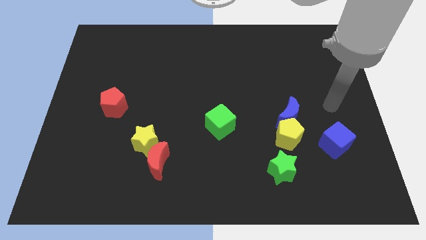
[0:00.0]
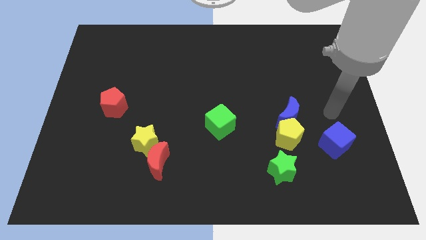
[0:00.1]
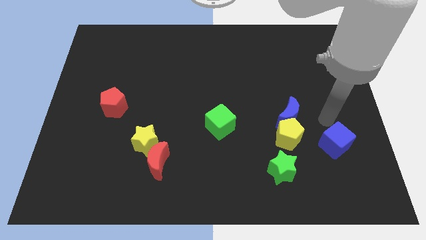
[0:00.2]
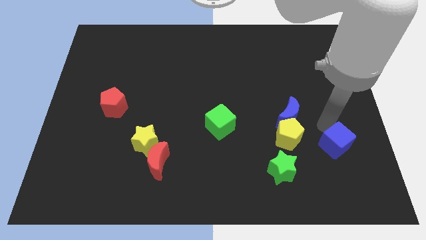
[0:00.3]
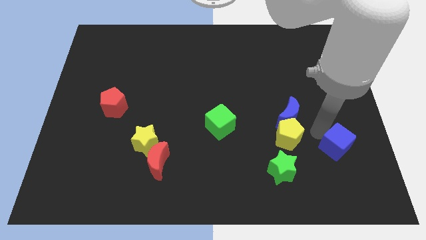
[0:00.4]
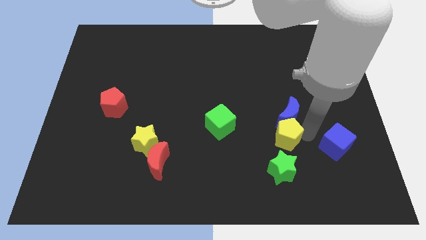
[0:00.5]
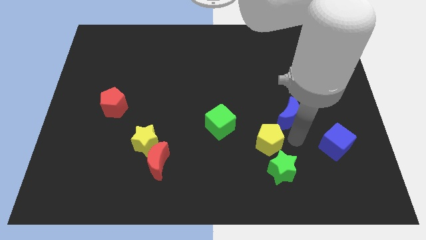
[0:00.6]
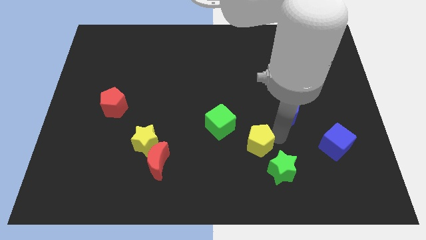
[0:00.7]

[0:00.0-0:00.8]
separate the blue moon from the yellow pentagon

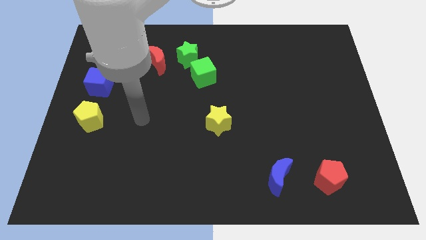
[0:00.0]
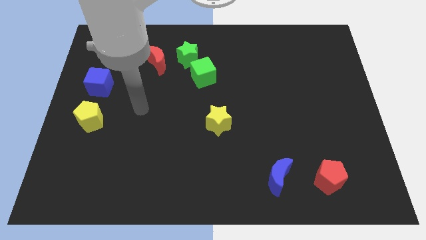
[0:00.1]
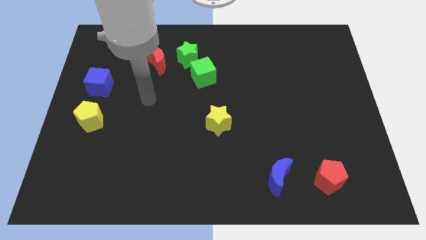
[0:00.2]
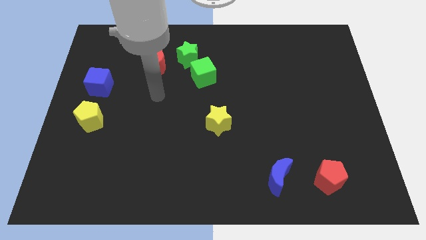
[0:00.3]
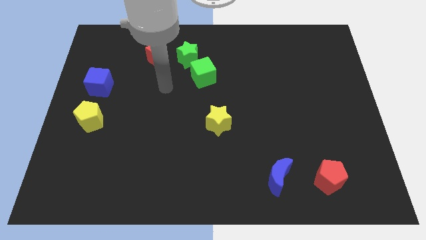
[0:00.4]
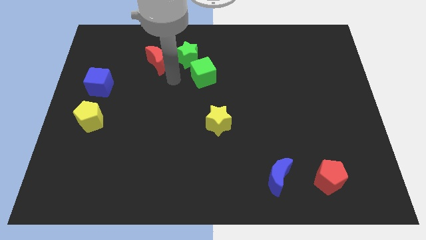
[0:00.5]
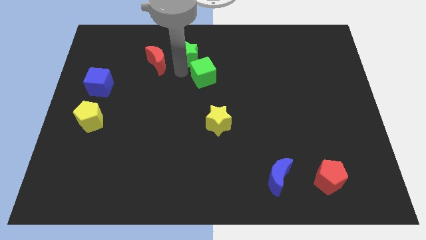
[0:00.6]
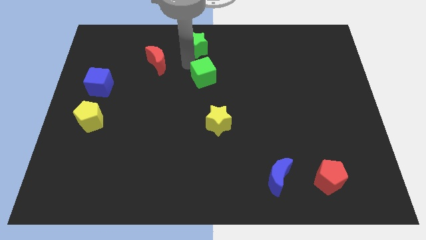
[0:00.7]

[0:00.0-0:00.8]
move the green cube away from the green star

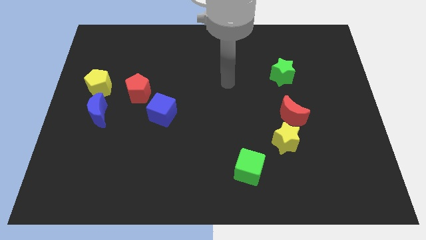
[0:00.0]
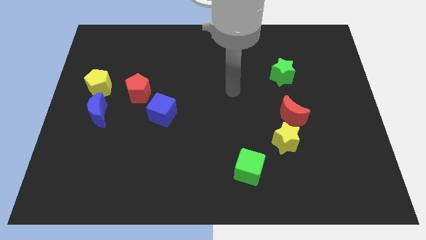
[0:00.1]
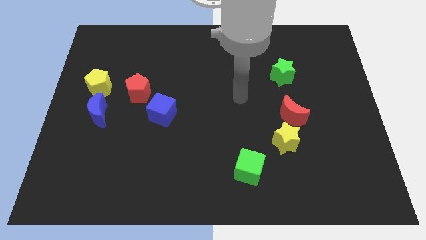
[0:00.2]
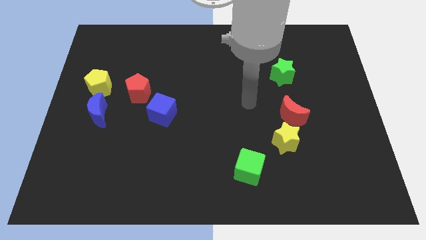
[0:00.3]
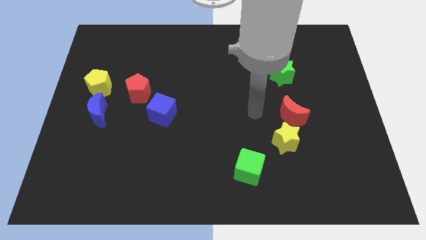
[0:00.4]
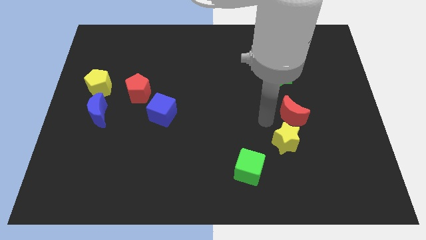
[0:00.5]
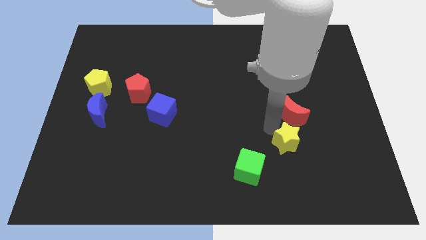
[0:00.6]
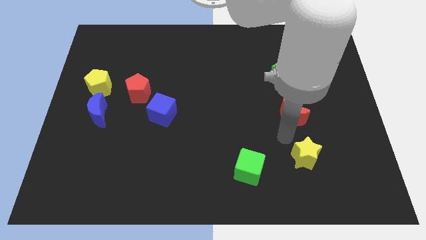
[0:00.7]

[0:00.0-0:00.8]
move the red moon away from the yellow star

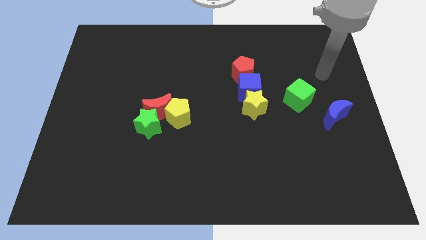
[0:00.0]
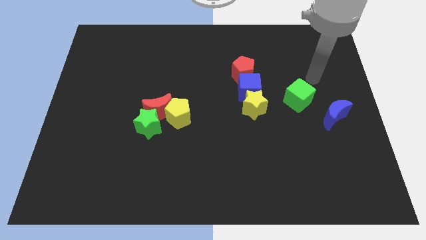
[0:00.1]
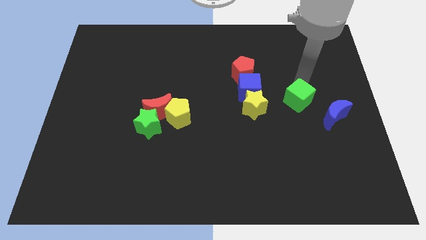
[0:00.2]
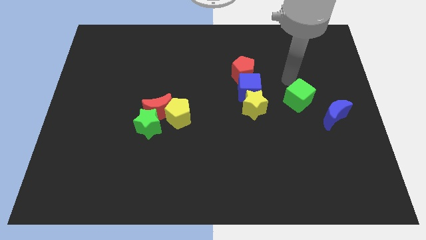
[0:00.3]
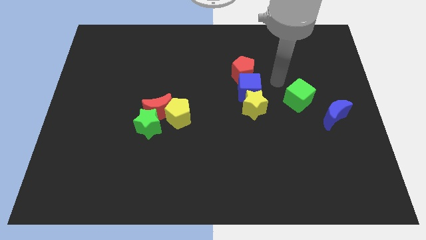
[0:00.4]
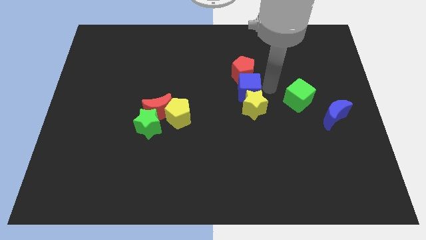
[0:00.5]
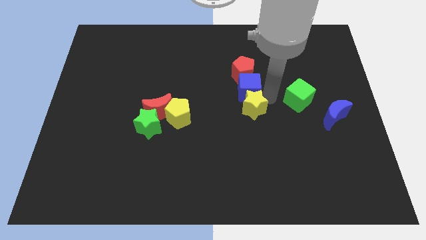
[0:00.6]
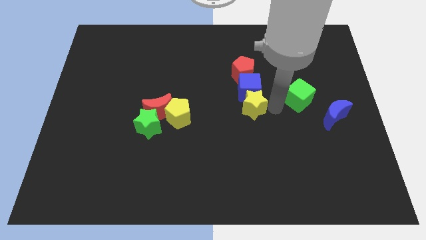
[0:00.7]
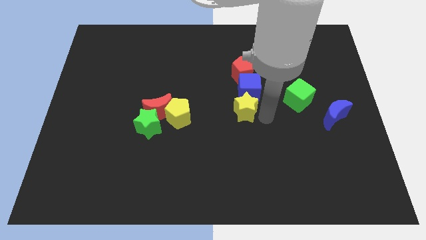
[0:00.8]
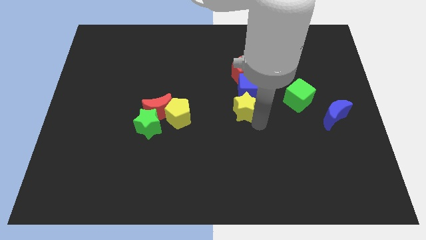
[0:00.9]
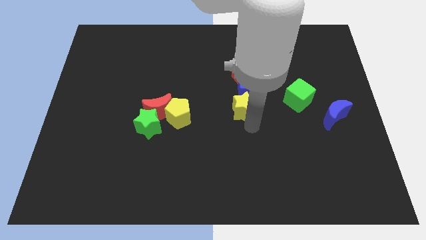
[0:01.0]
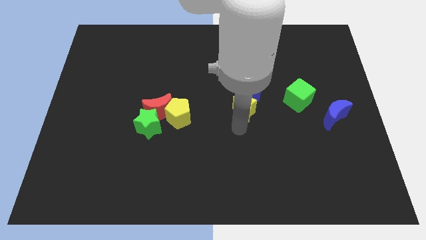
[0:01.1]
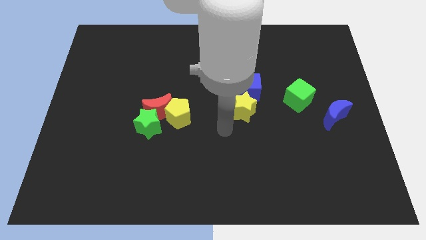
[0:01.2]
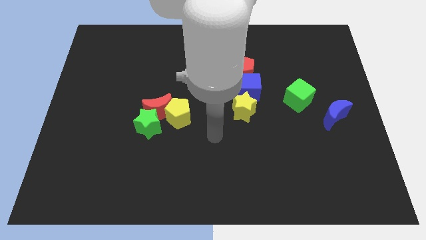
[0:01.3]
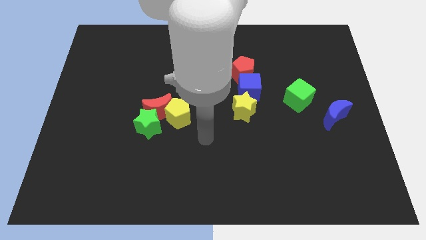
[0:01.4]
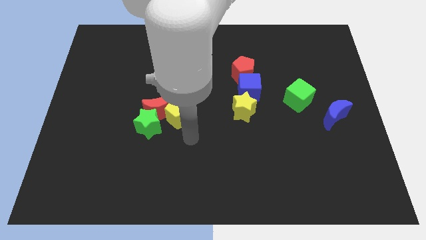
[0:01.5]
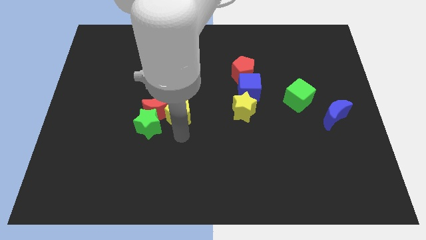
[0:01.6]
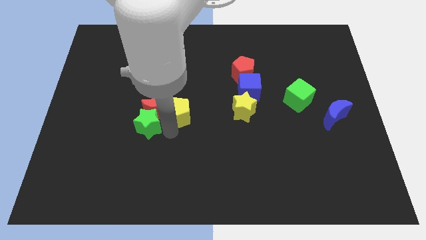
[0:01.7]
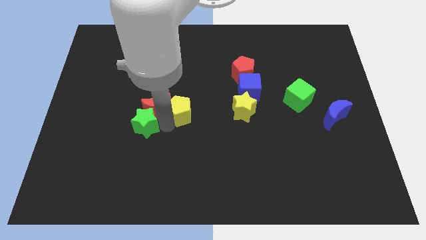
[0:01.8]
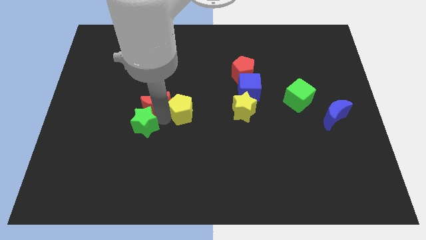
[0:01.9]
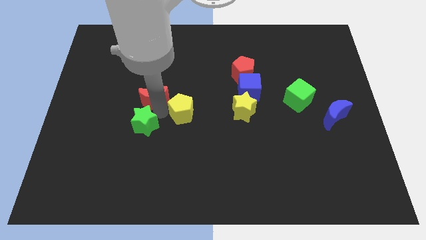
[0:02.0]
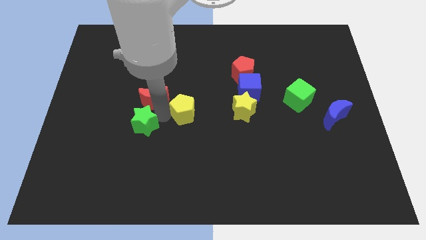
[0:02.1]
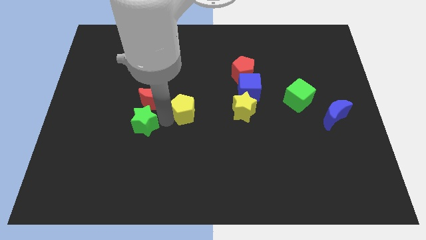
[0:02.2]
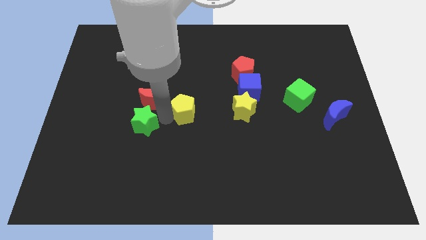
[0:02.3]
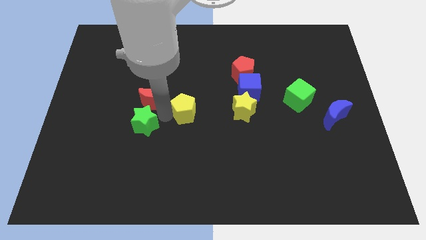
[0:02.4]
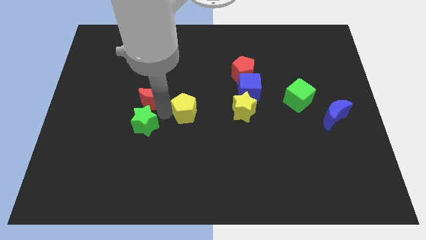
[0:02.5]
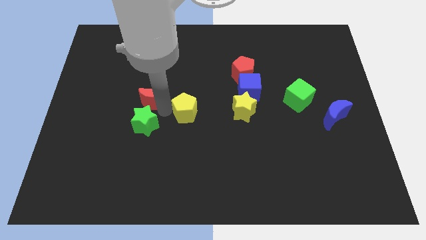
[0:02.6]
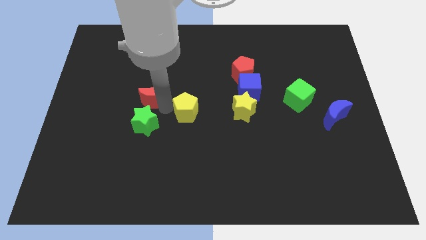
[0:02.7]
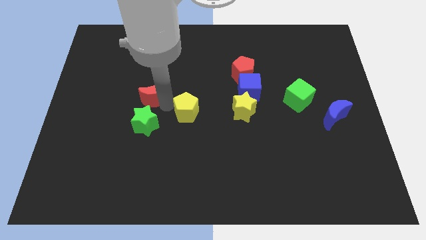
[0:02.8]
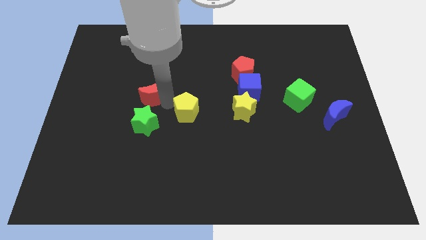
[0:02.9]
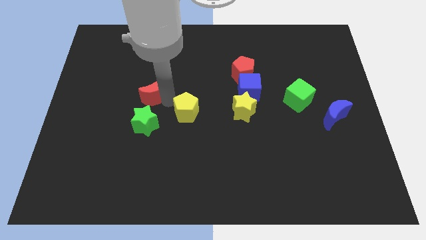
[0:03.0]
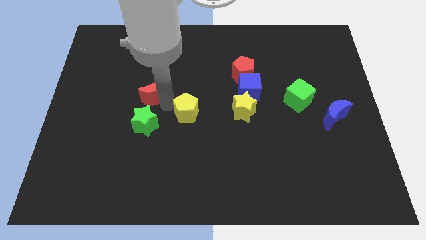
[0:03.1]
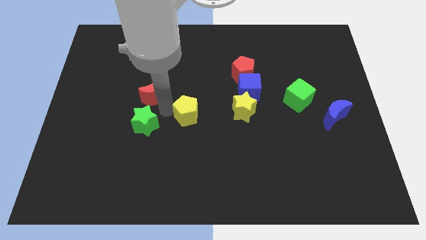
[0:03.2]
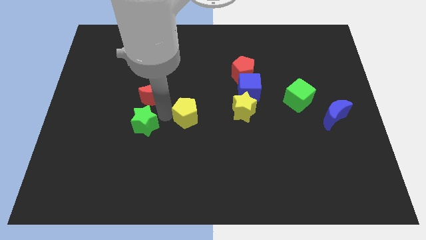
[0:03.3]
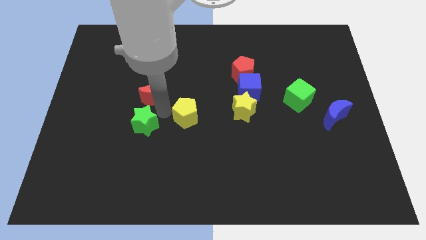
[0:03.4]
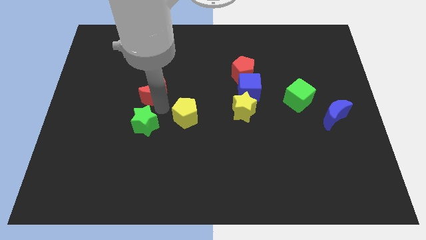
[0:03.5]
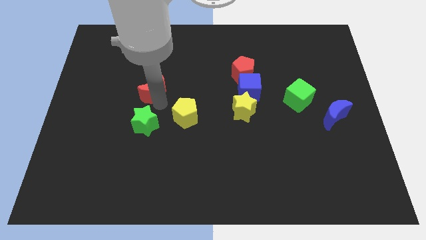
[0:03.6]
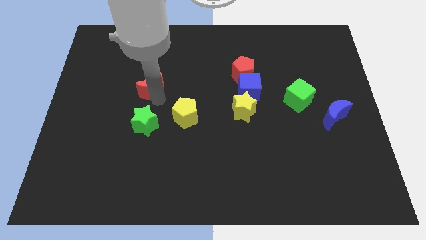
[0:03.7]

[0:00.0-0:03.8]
move the red moon away from the green star and yellow pentagon

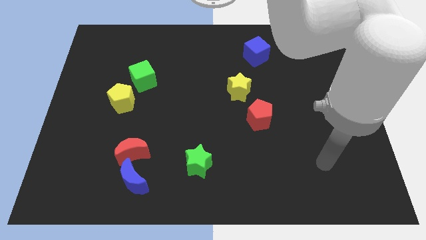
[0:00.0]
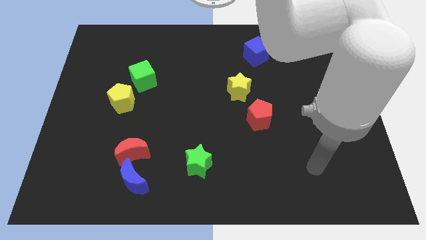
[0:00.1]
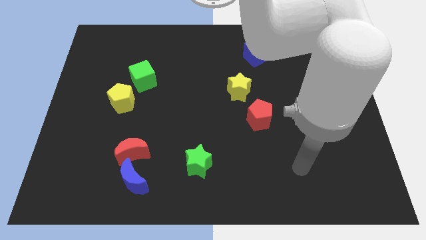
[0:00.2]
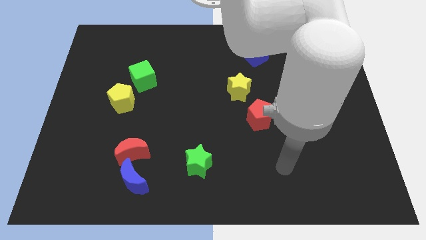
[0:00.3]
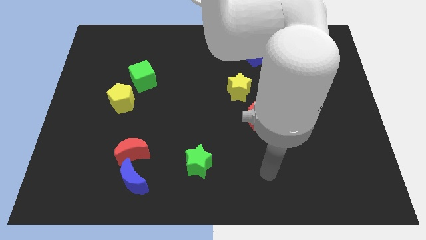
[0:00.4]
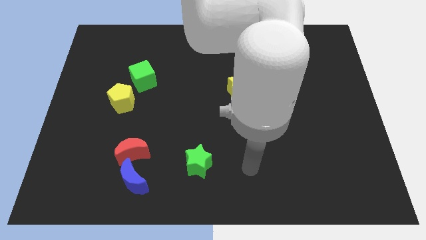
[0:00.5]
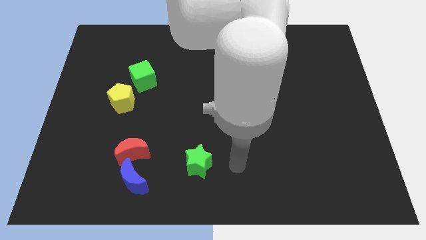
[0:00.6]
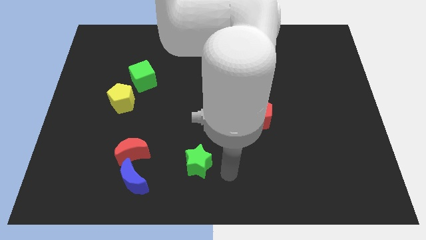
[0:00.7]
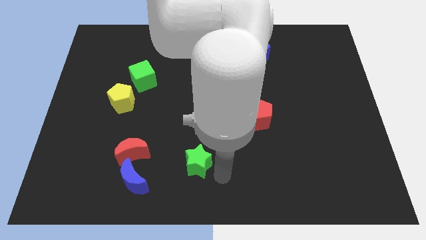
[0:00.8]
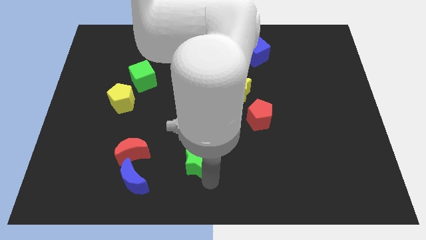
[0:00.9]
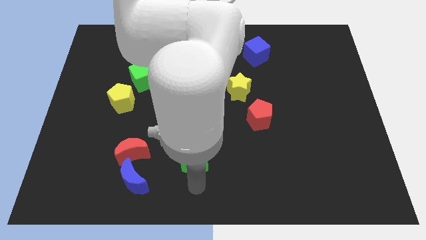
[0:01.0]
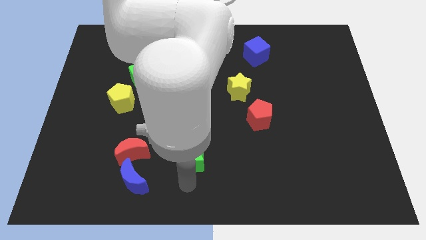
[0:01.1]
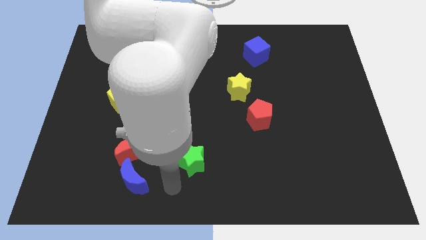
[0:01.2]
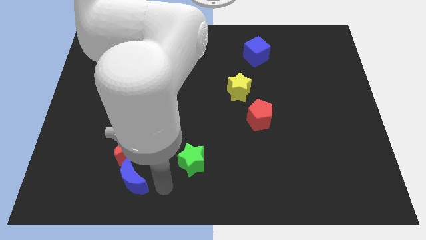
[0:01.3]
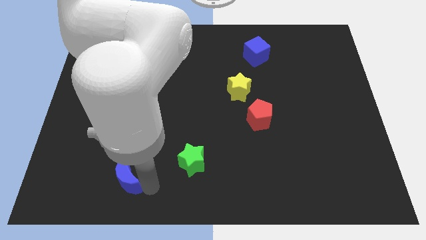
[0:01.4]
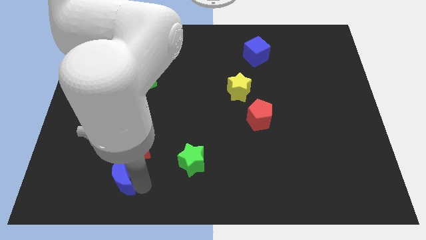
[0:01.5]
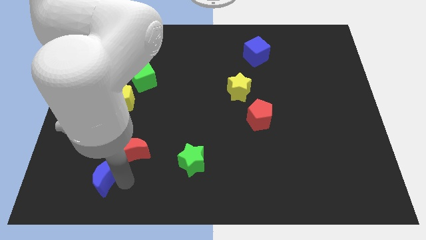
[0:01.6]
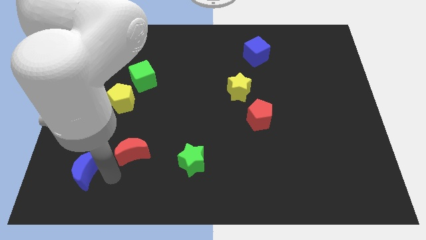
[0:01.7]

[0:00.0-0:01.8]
pull the red moon apart from the blue moon

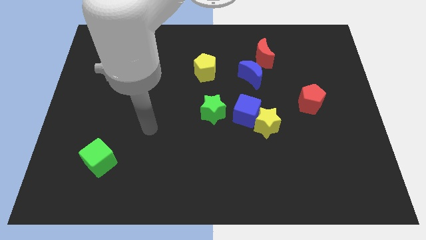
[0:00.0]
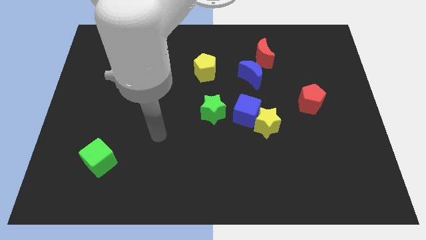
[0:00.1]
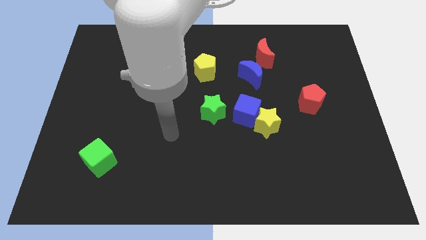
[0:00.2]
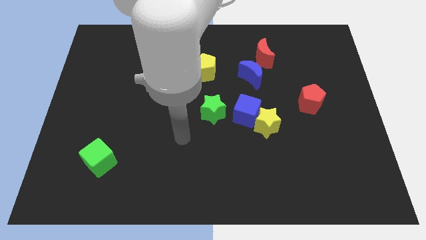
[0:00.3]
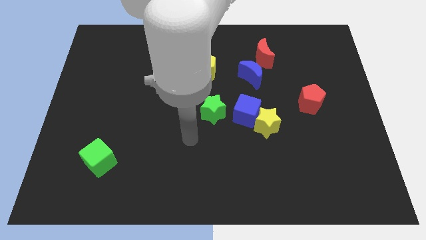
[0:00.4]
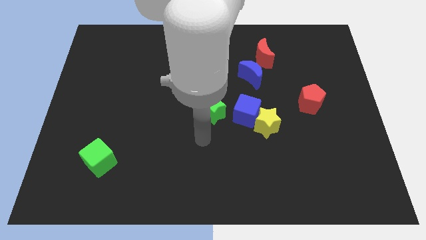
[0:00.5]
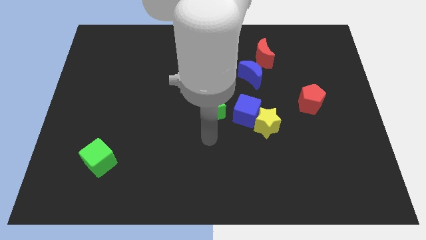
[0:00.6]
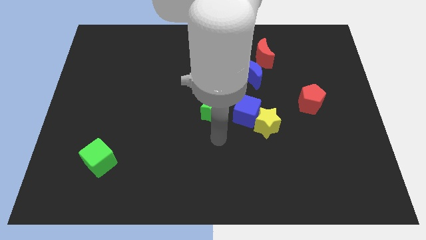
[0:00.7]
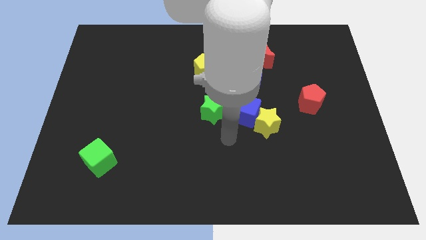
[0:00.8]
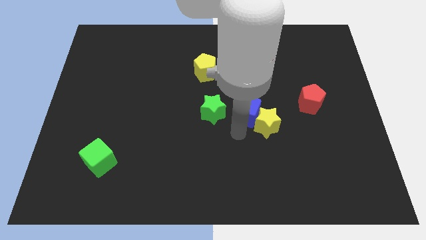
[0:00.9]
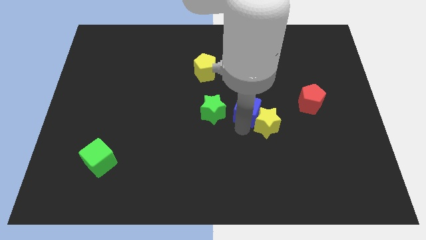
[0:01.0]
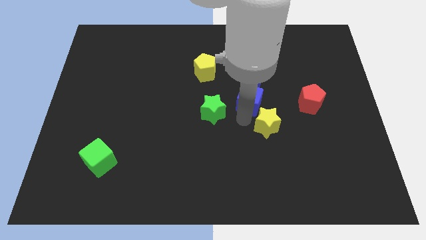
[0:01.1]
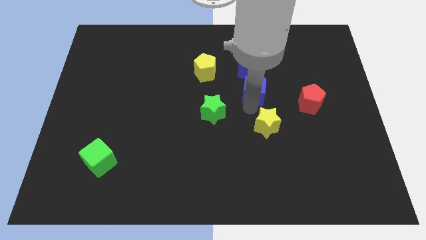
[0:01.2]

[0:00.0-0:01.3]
move the yellow star away from the blue cube
